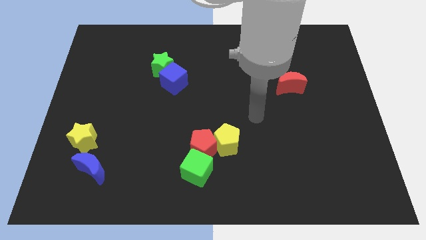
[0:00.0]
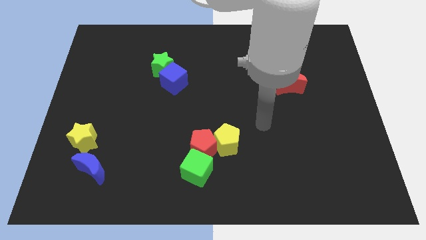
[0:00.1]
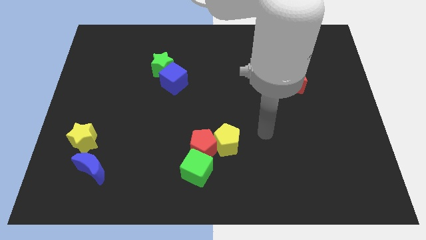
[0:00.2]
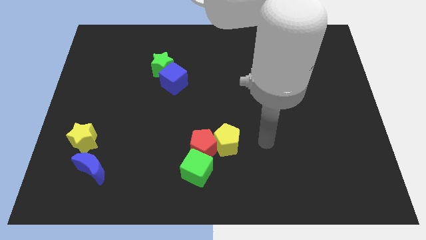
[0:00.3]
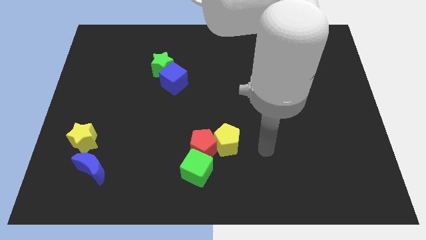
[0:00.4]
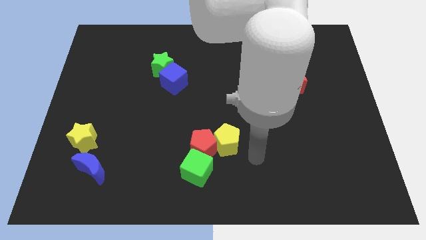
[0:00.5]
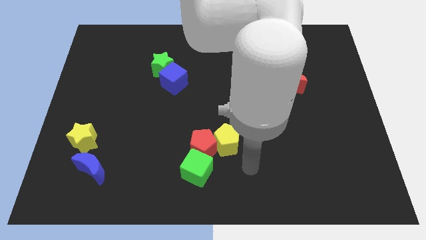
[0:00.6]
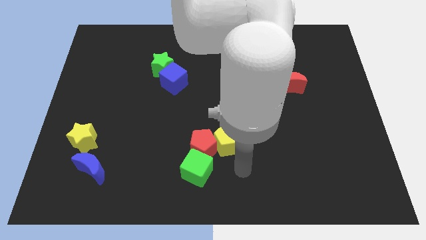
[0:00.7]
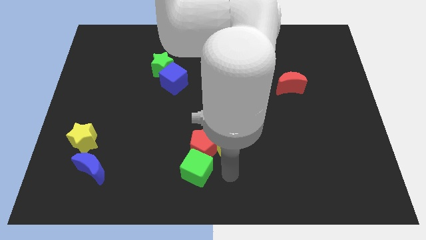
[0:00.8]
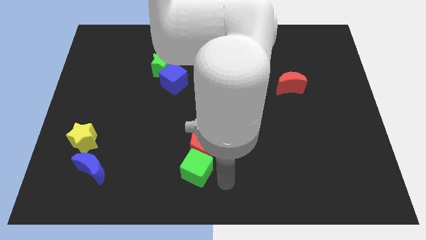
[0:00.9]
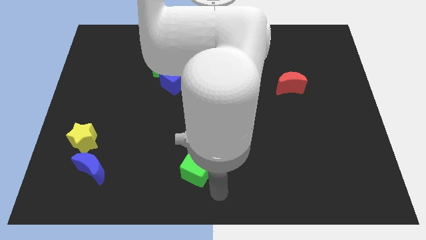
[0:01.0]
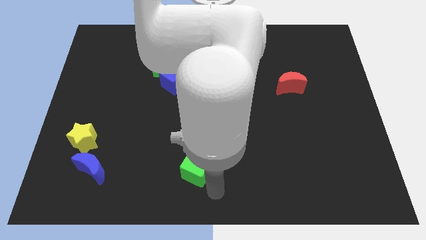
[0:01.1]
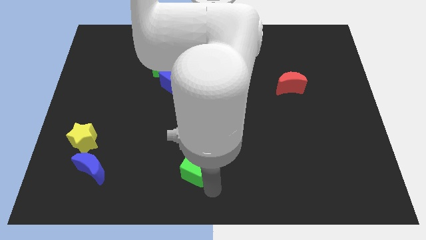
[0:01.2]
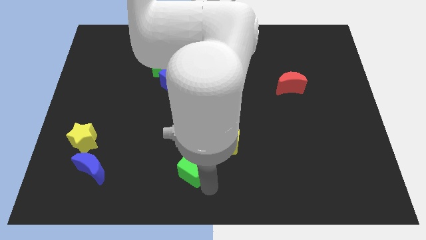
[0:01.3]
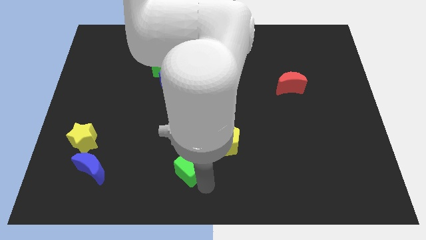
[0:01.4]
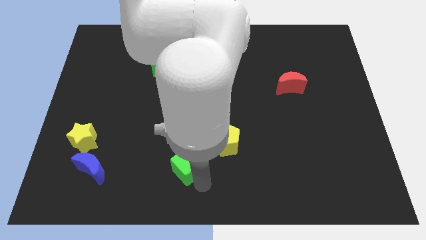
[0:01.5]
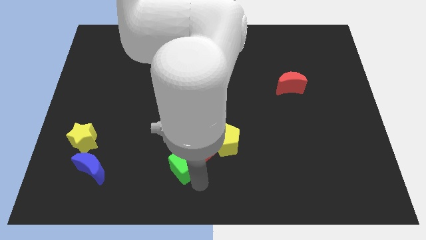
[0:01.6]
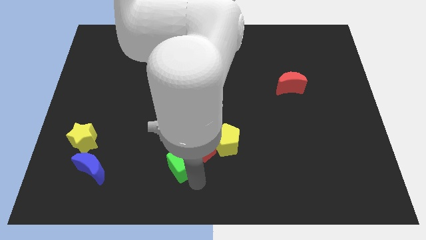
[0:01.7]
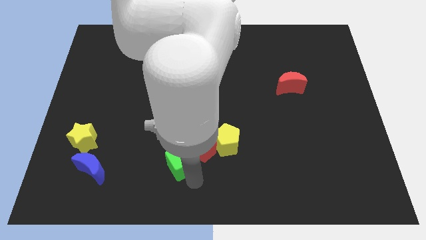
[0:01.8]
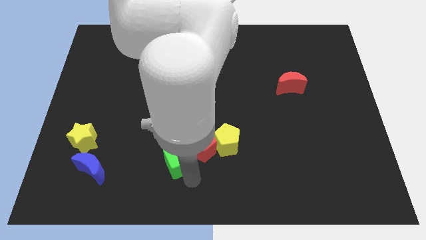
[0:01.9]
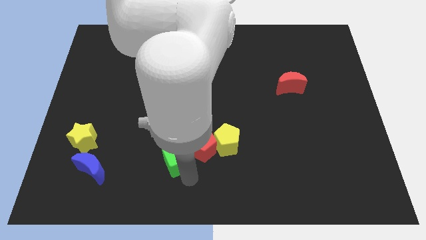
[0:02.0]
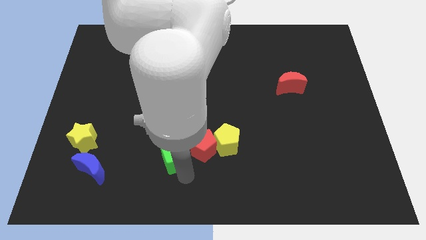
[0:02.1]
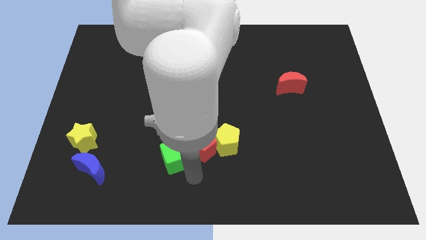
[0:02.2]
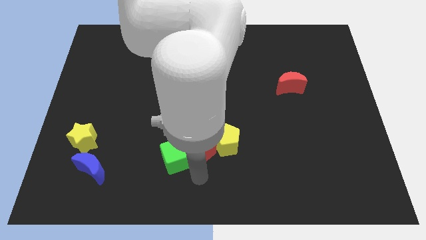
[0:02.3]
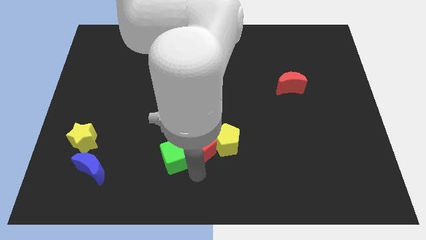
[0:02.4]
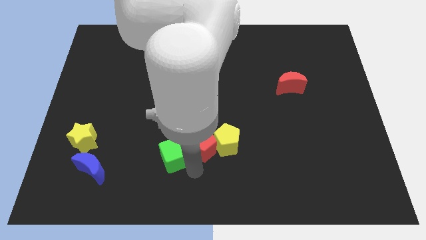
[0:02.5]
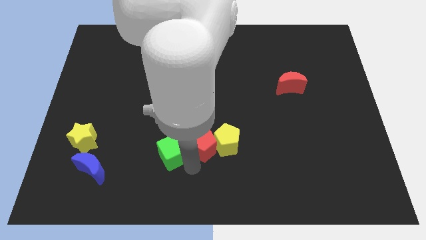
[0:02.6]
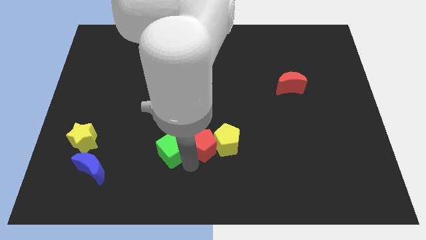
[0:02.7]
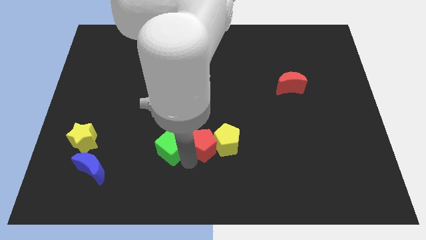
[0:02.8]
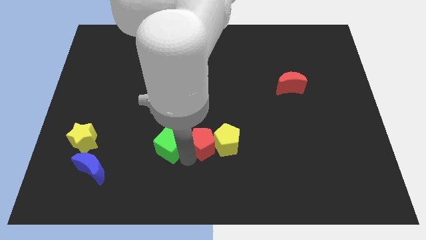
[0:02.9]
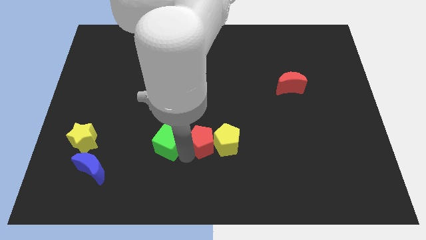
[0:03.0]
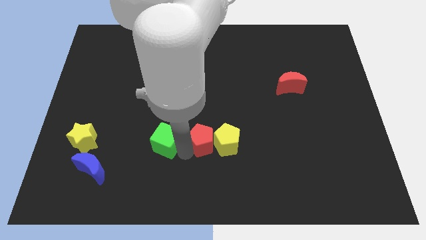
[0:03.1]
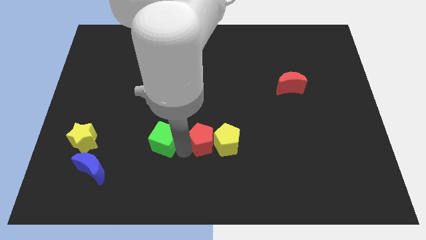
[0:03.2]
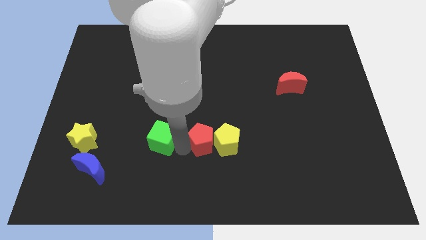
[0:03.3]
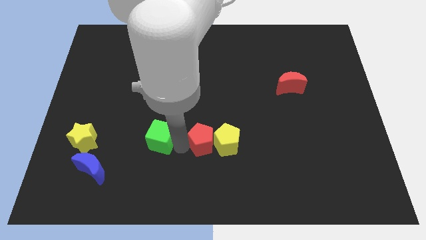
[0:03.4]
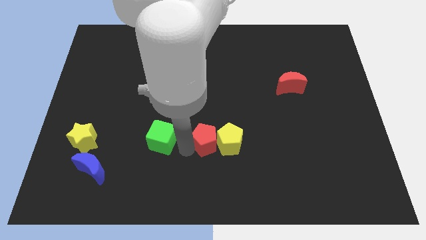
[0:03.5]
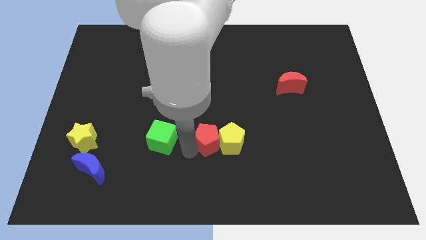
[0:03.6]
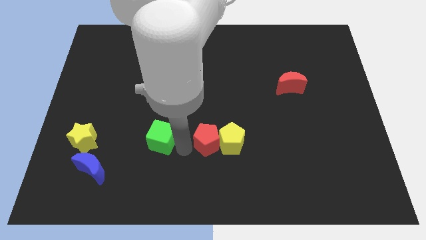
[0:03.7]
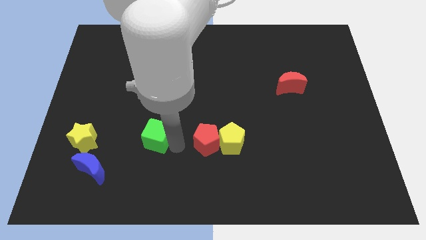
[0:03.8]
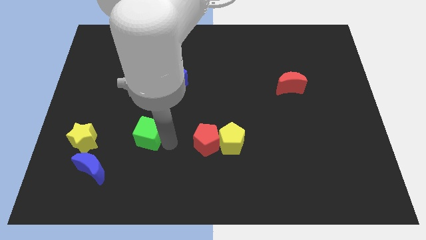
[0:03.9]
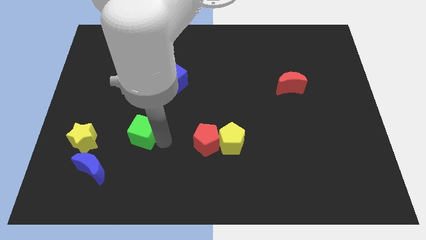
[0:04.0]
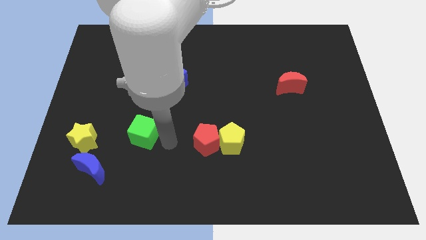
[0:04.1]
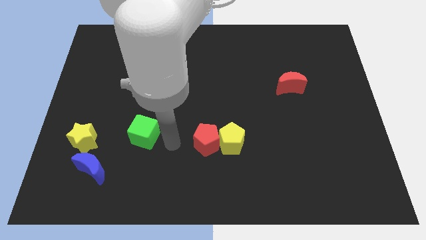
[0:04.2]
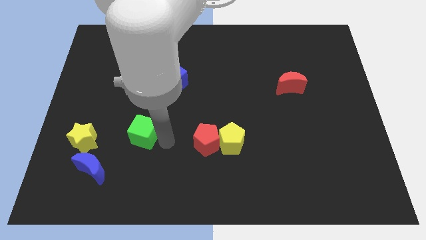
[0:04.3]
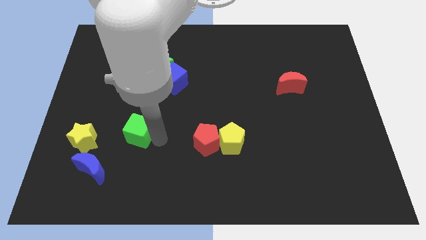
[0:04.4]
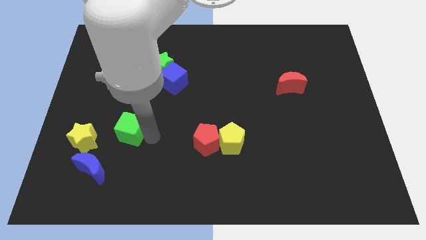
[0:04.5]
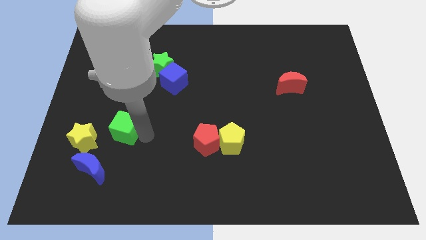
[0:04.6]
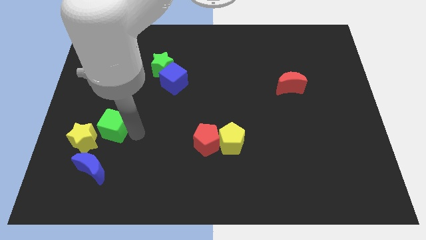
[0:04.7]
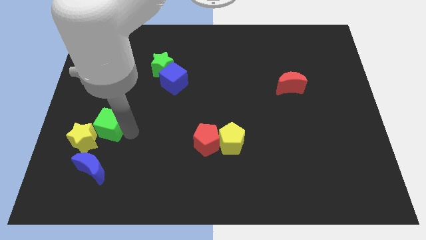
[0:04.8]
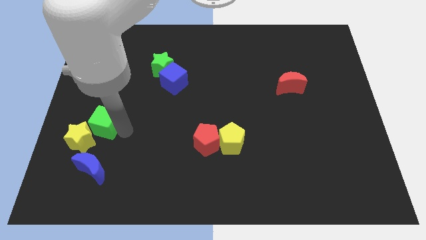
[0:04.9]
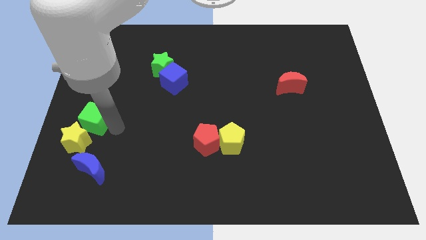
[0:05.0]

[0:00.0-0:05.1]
move the green cube to the left side of the board

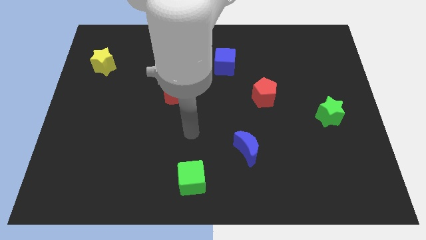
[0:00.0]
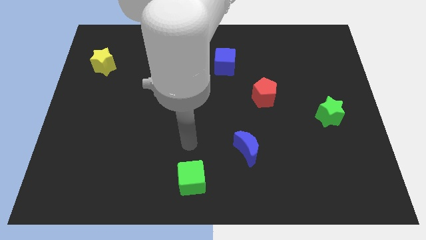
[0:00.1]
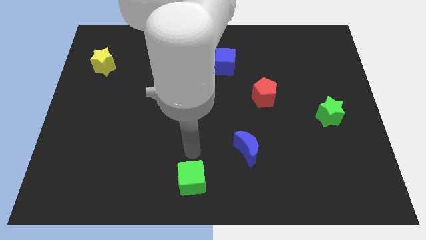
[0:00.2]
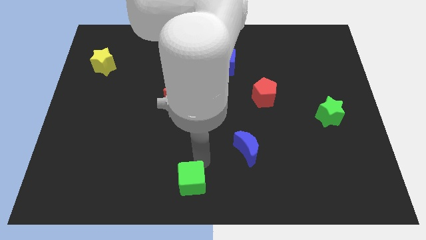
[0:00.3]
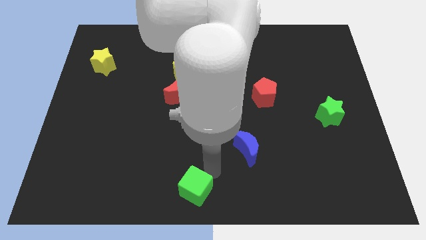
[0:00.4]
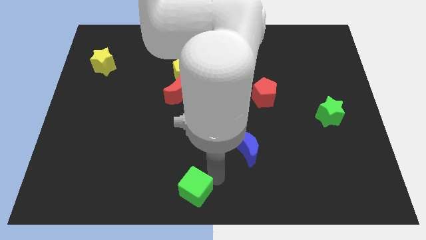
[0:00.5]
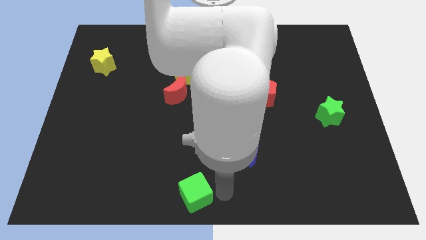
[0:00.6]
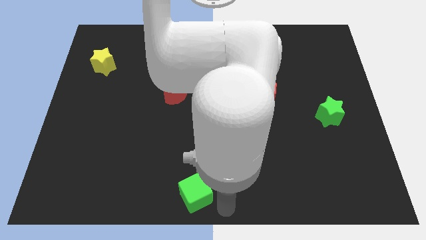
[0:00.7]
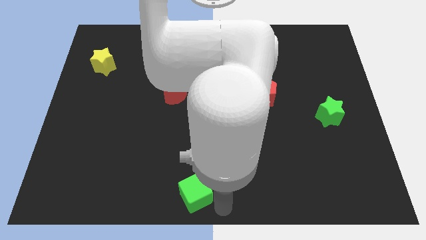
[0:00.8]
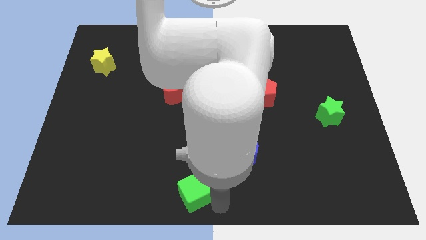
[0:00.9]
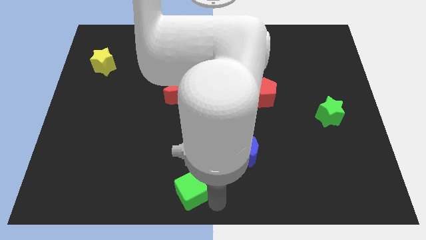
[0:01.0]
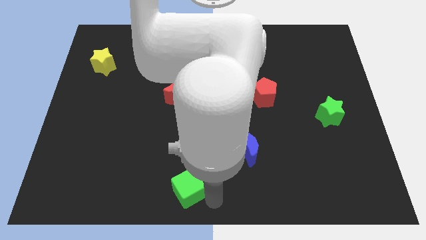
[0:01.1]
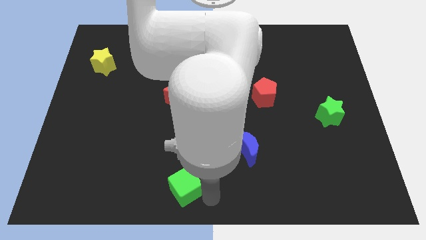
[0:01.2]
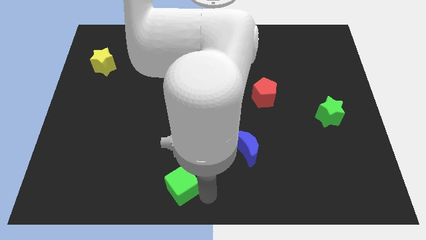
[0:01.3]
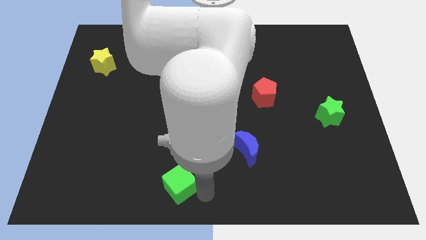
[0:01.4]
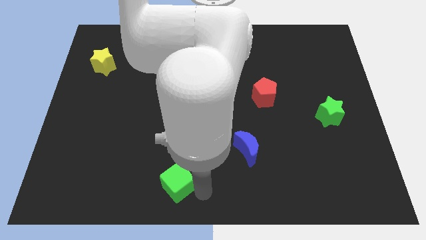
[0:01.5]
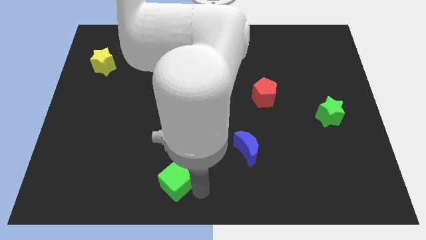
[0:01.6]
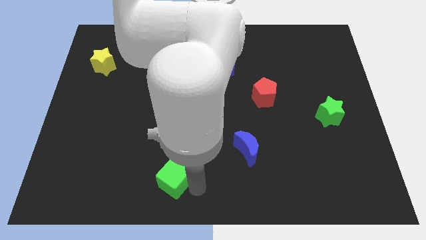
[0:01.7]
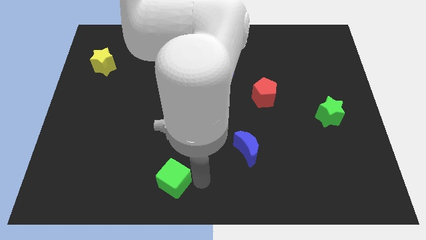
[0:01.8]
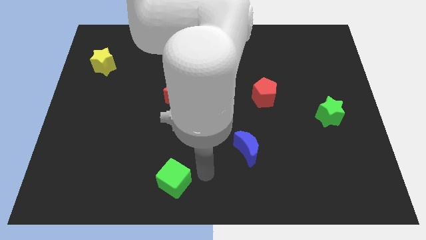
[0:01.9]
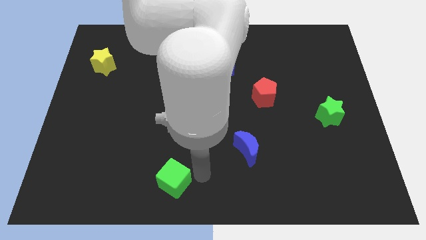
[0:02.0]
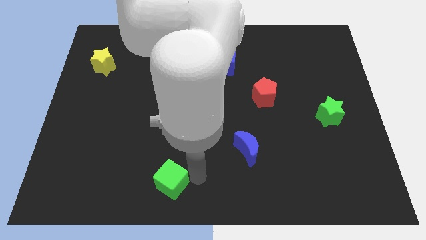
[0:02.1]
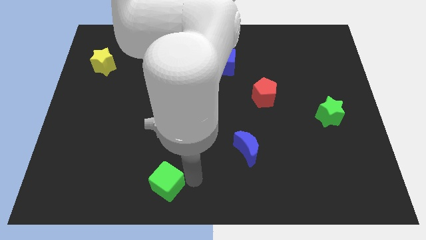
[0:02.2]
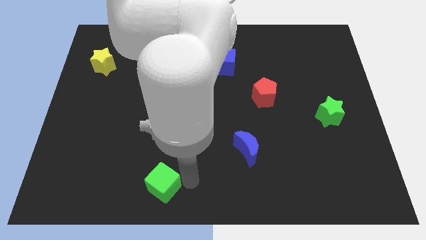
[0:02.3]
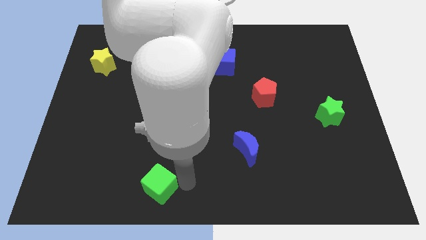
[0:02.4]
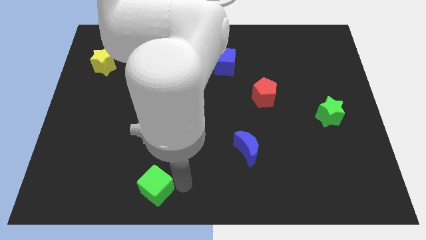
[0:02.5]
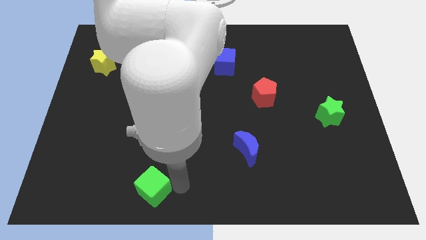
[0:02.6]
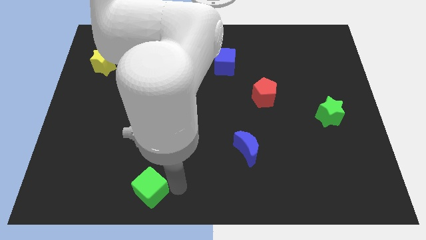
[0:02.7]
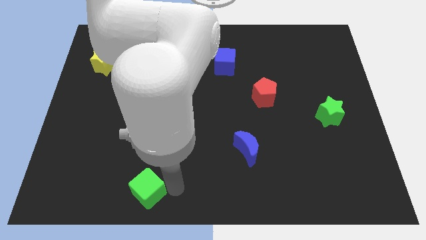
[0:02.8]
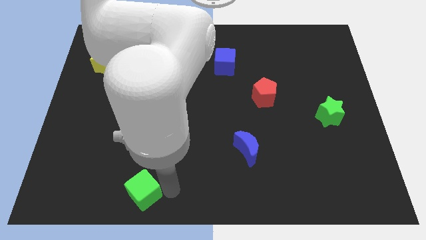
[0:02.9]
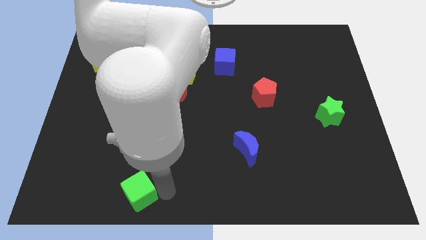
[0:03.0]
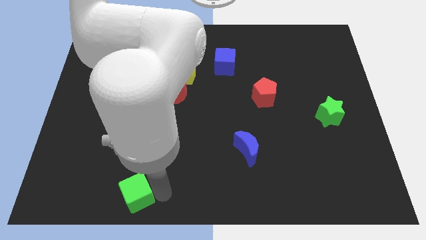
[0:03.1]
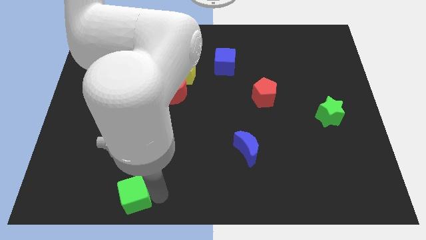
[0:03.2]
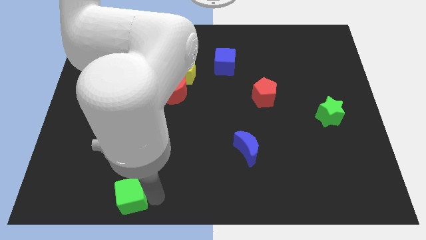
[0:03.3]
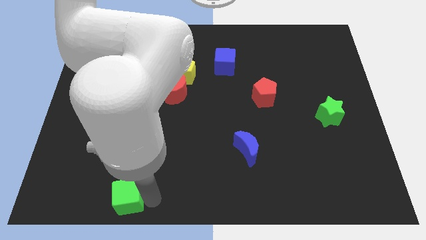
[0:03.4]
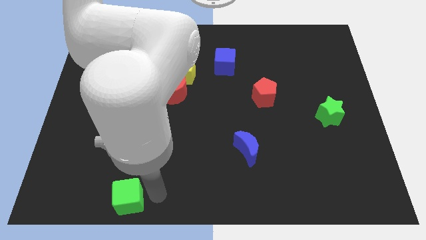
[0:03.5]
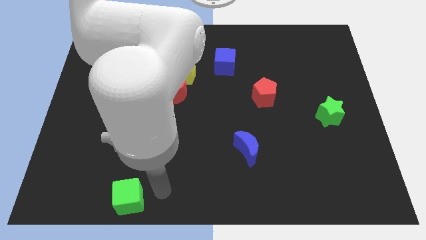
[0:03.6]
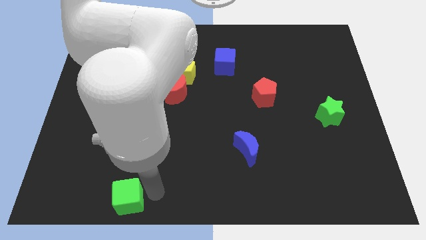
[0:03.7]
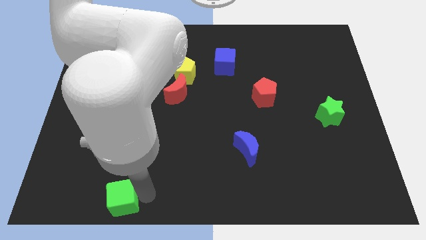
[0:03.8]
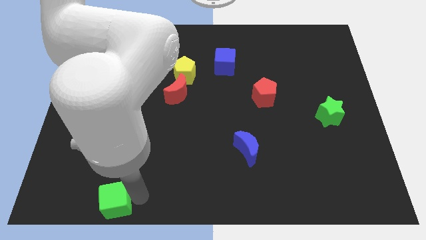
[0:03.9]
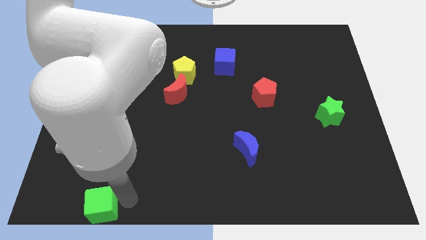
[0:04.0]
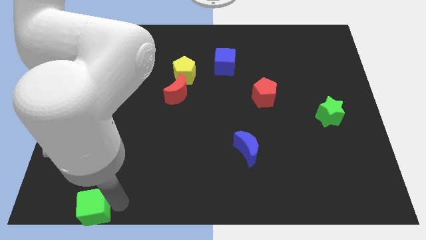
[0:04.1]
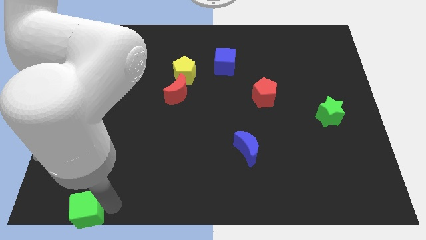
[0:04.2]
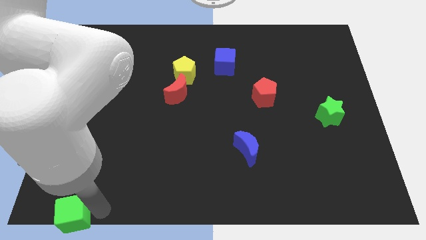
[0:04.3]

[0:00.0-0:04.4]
move the green cube to the bottom left of the board
